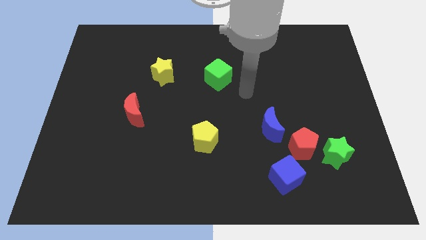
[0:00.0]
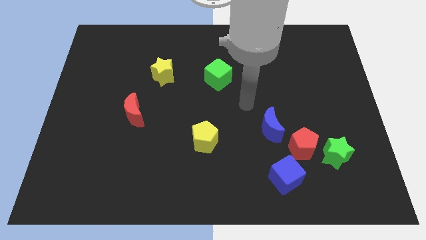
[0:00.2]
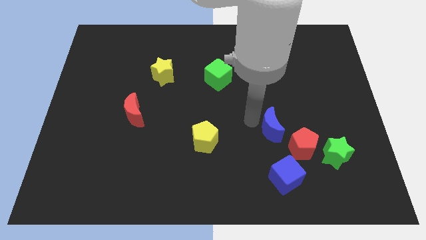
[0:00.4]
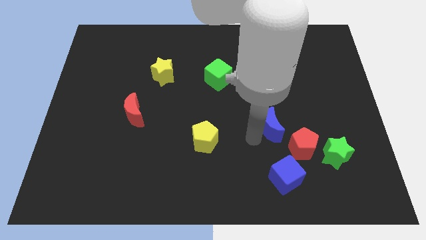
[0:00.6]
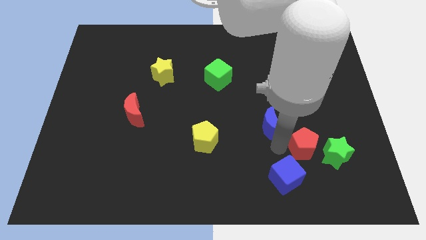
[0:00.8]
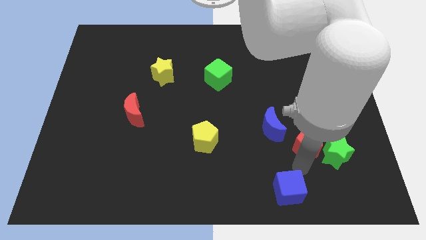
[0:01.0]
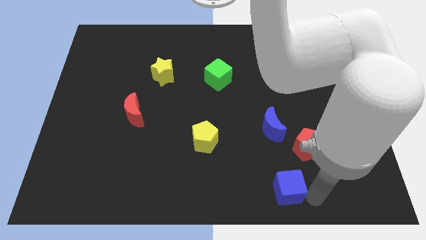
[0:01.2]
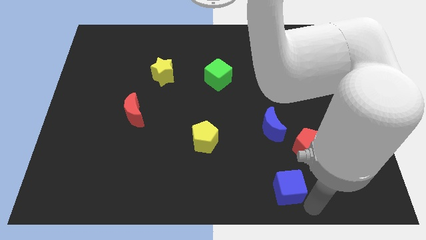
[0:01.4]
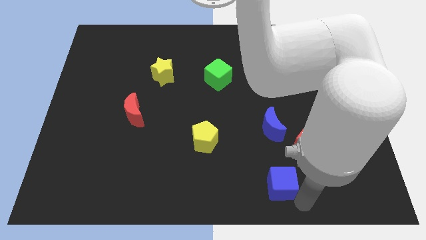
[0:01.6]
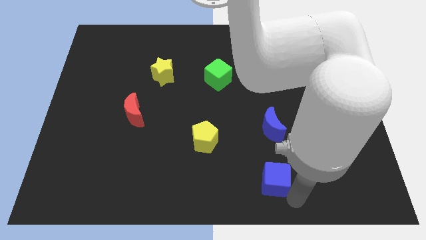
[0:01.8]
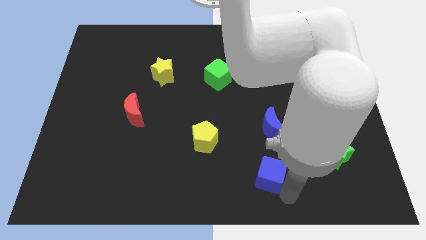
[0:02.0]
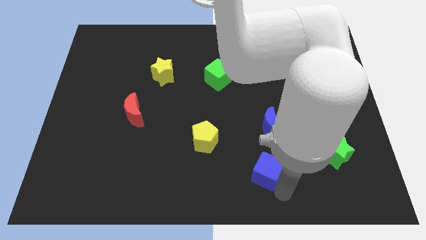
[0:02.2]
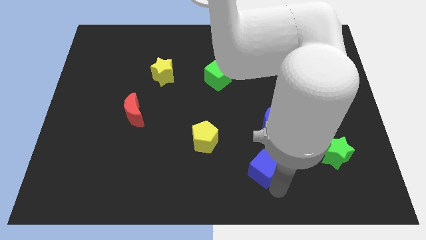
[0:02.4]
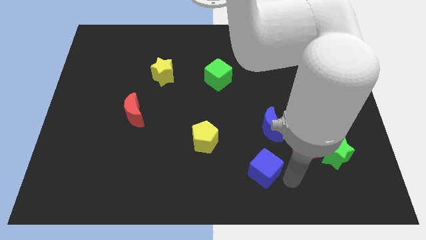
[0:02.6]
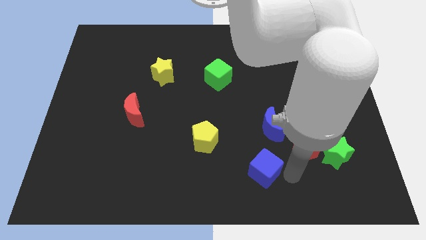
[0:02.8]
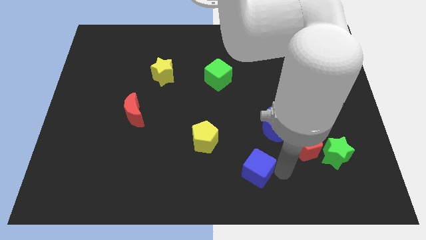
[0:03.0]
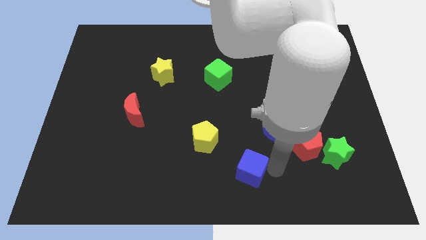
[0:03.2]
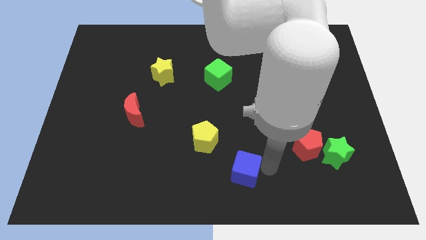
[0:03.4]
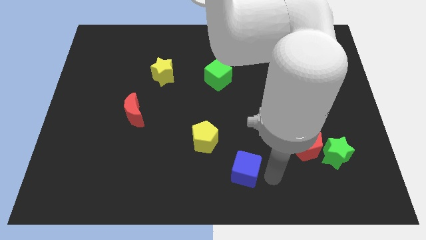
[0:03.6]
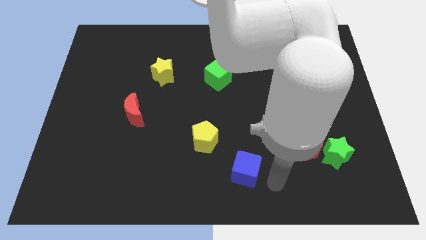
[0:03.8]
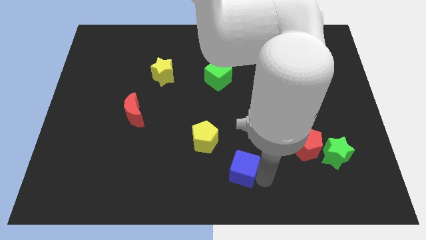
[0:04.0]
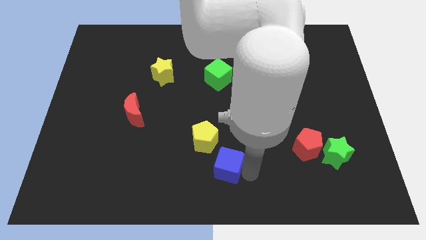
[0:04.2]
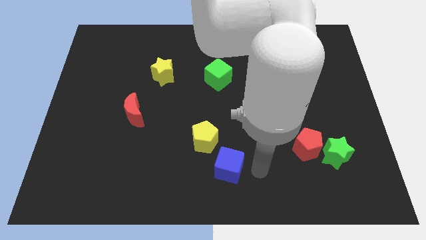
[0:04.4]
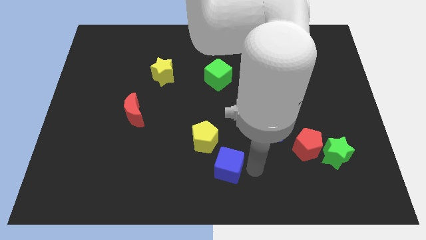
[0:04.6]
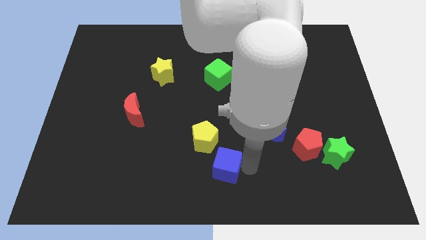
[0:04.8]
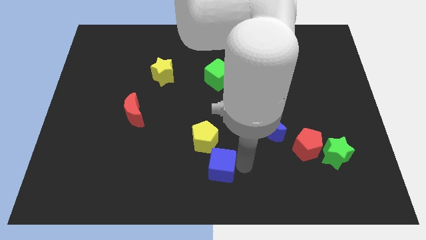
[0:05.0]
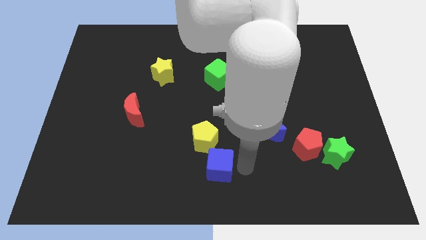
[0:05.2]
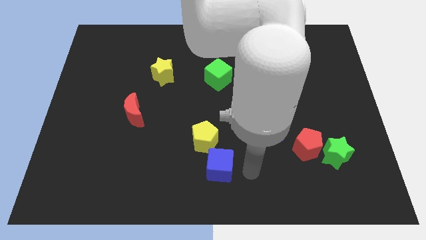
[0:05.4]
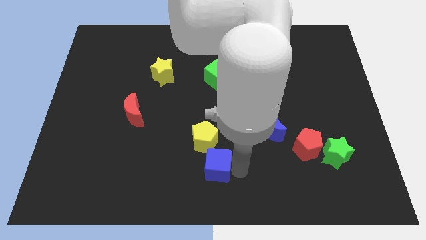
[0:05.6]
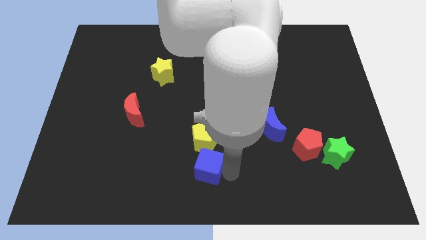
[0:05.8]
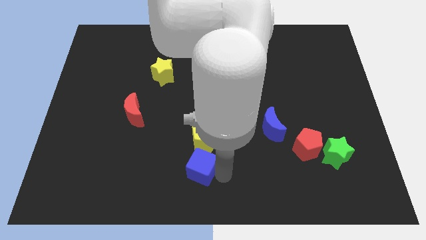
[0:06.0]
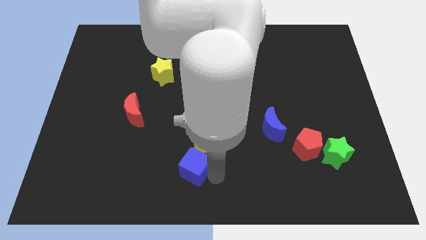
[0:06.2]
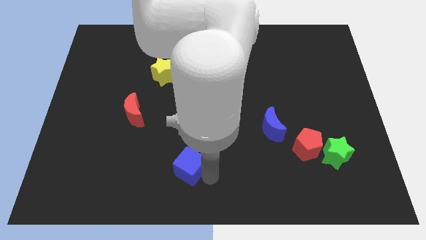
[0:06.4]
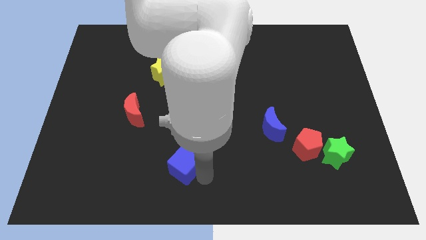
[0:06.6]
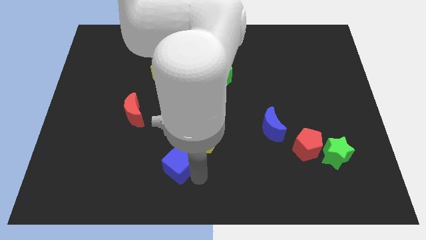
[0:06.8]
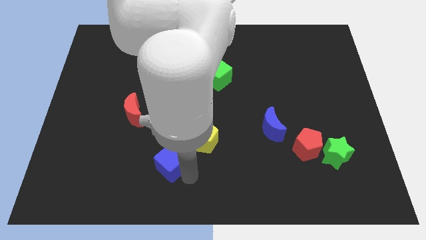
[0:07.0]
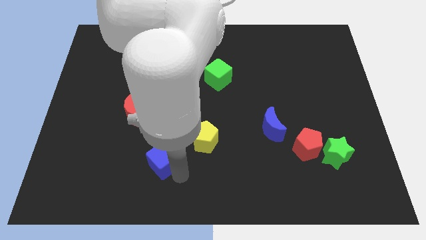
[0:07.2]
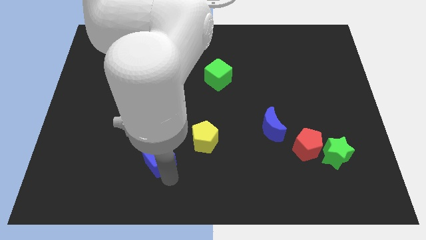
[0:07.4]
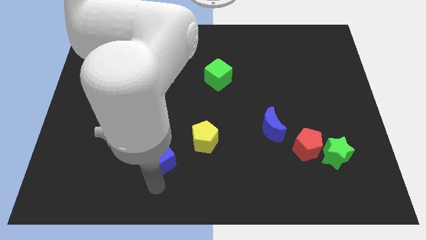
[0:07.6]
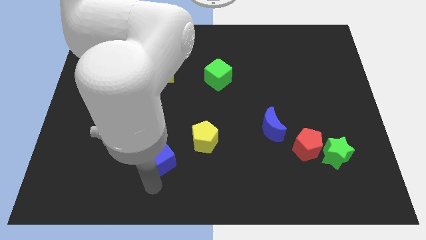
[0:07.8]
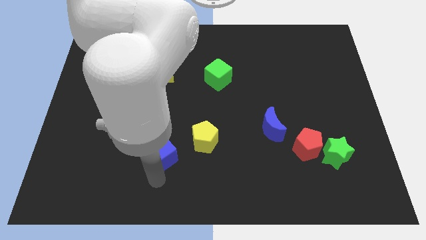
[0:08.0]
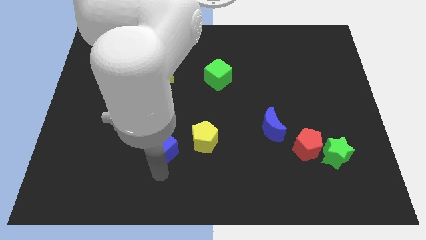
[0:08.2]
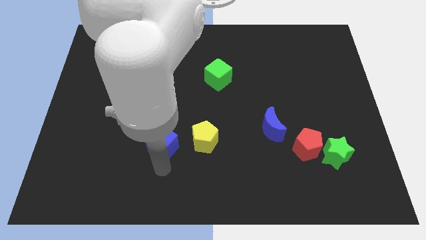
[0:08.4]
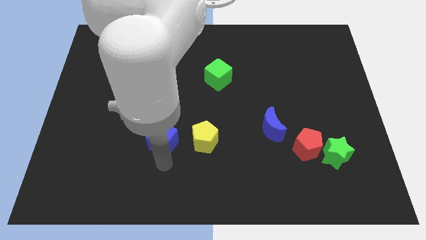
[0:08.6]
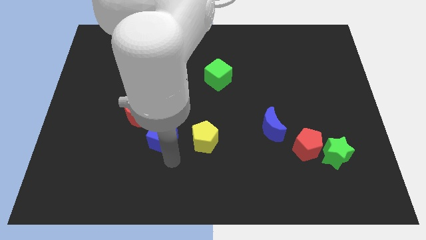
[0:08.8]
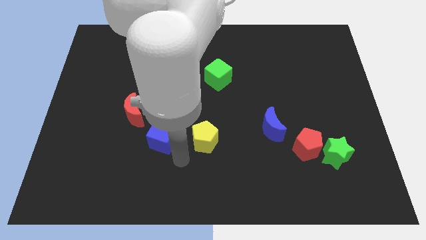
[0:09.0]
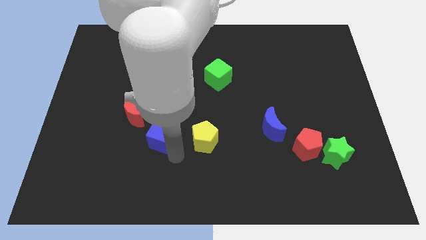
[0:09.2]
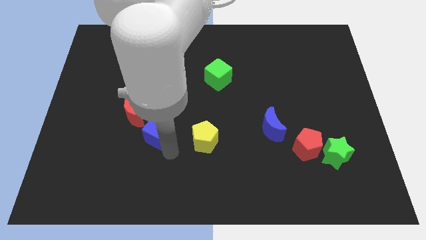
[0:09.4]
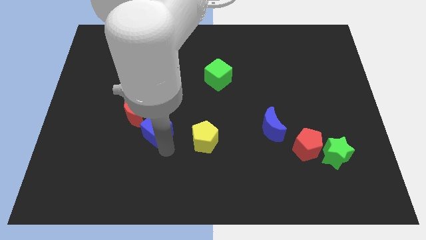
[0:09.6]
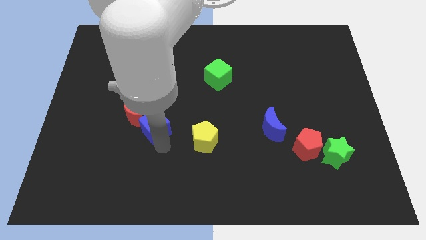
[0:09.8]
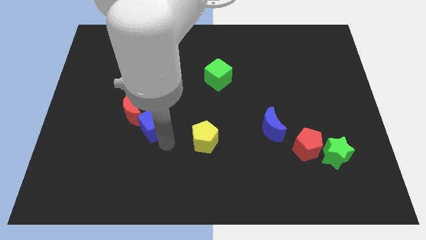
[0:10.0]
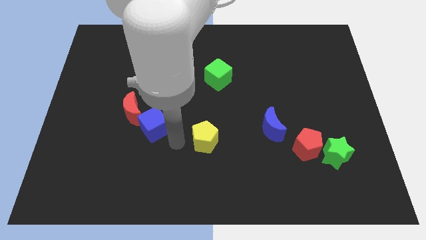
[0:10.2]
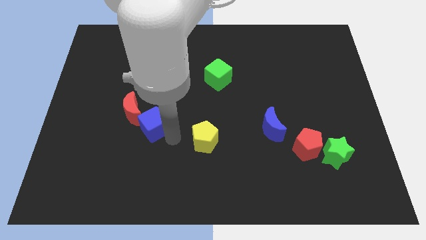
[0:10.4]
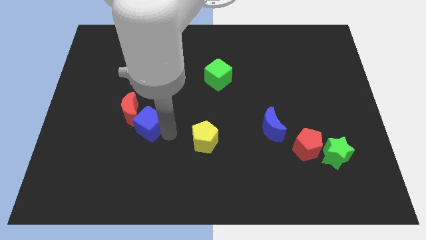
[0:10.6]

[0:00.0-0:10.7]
move the blue cube towards the red moon

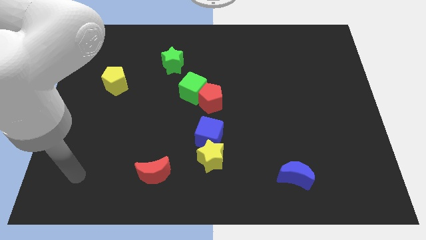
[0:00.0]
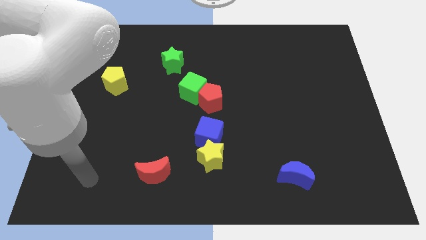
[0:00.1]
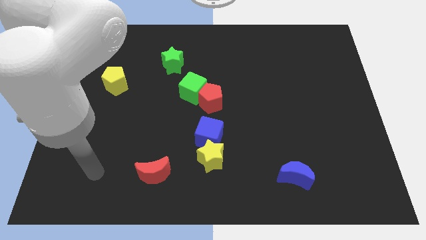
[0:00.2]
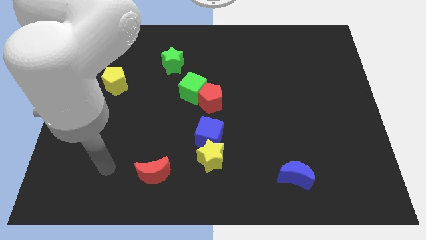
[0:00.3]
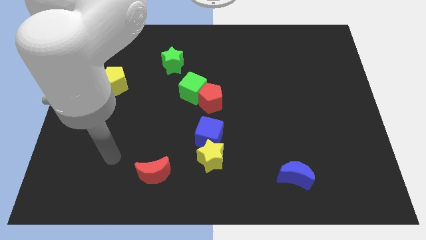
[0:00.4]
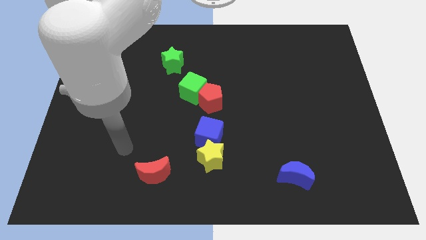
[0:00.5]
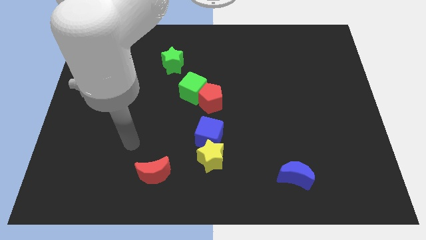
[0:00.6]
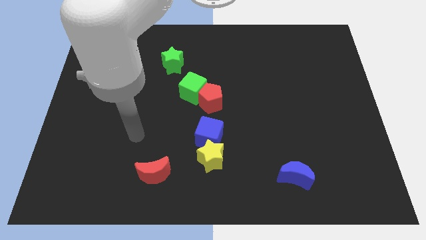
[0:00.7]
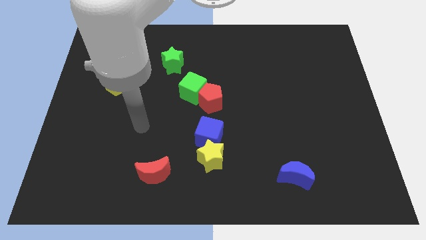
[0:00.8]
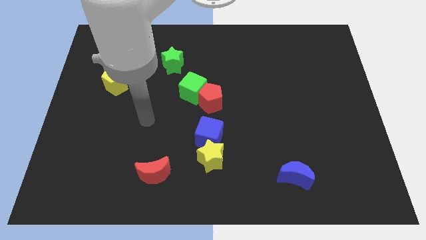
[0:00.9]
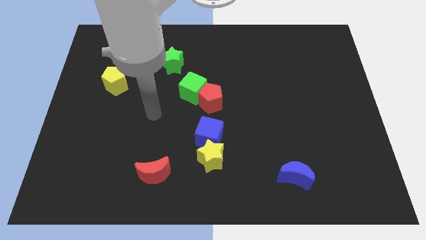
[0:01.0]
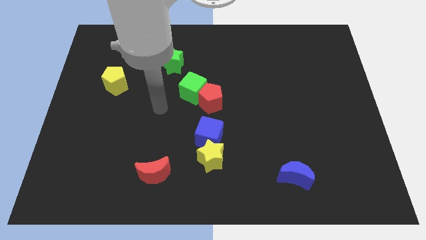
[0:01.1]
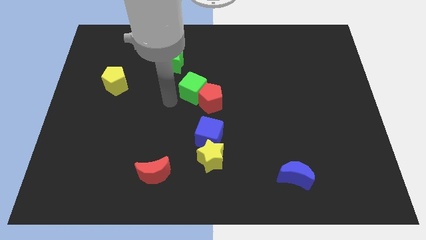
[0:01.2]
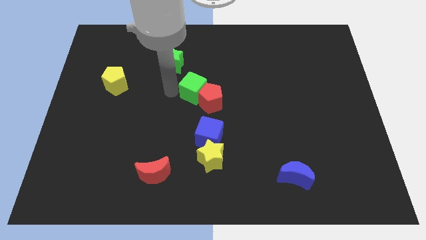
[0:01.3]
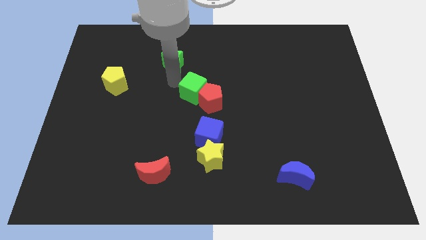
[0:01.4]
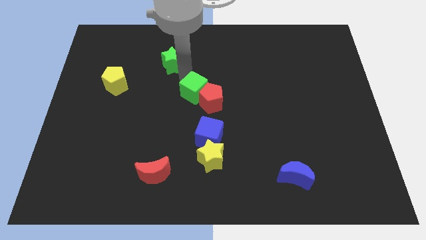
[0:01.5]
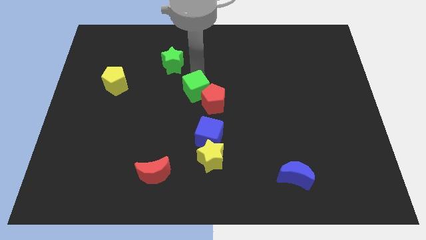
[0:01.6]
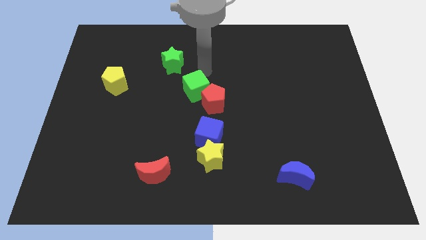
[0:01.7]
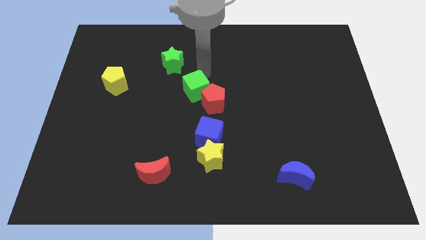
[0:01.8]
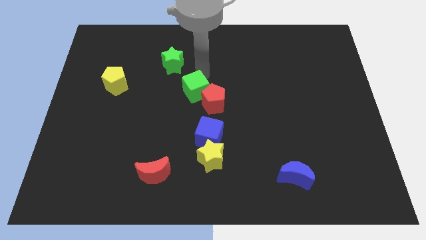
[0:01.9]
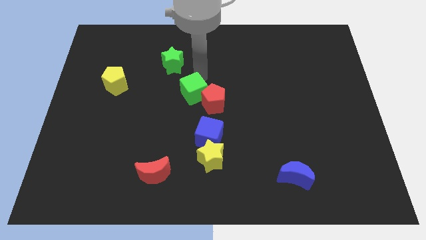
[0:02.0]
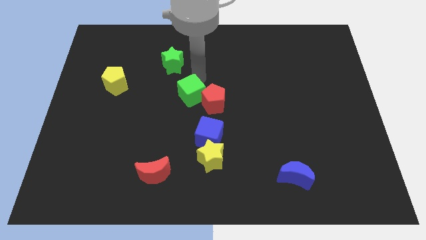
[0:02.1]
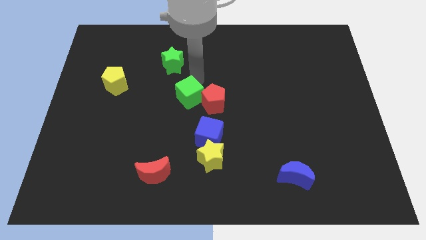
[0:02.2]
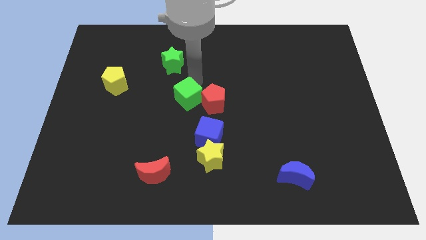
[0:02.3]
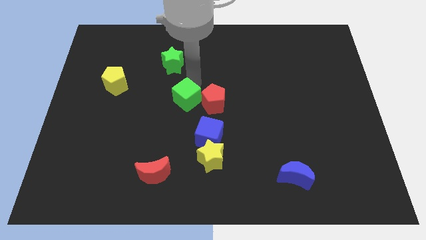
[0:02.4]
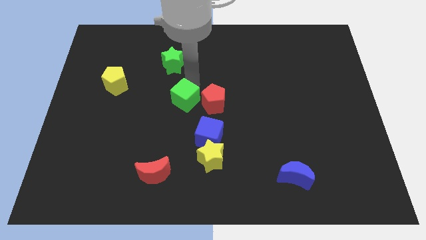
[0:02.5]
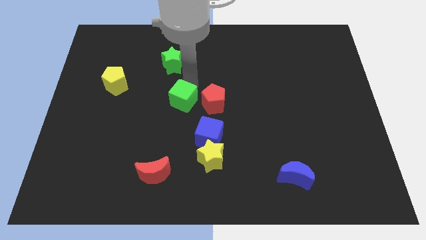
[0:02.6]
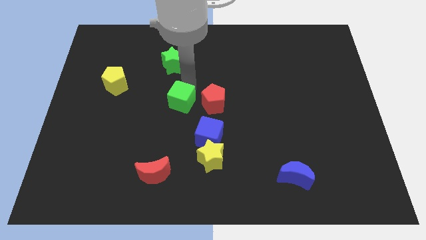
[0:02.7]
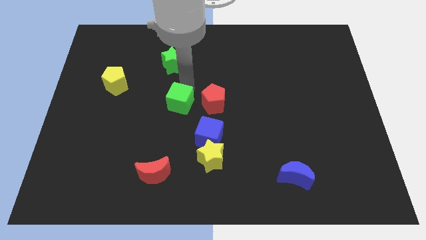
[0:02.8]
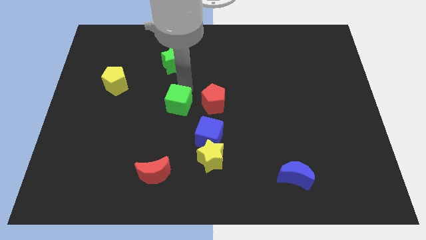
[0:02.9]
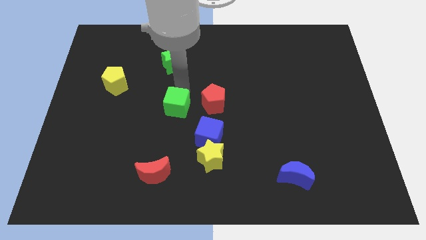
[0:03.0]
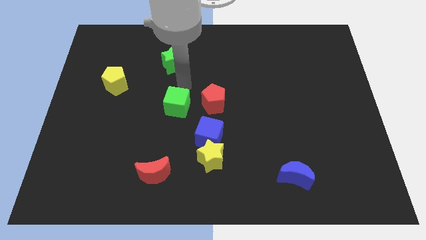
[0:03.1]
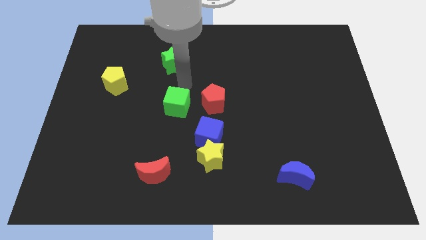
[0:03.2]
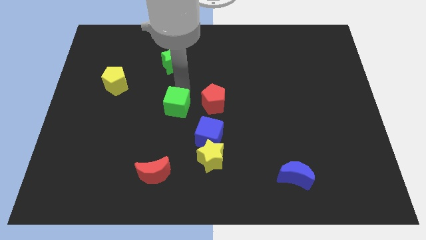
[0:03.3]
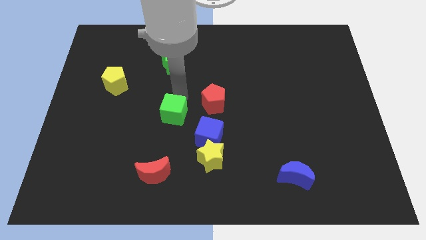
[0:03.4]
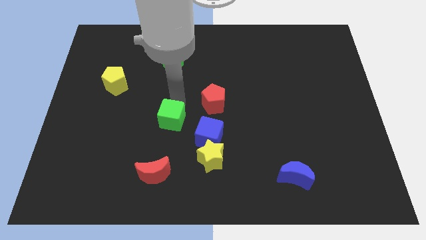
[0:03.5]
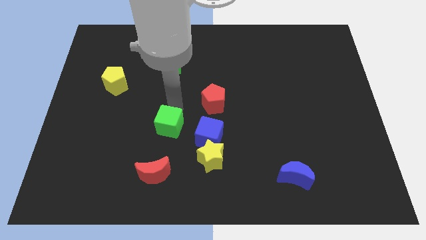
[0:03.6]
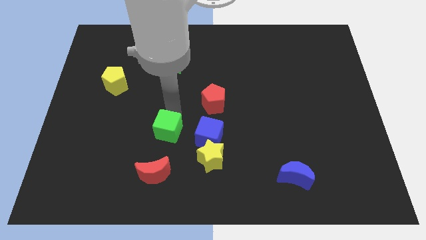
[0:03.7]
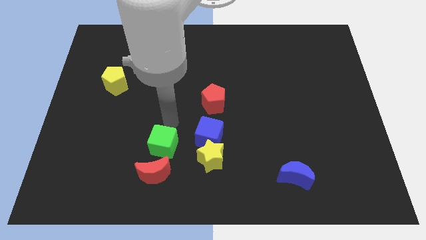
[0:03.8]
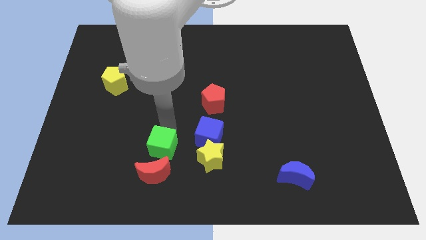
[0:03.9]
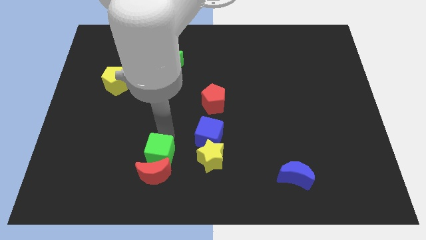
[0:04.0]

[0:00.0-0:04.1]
move the green cube to the red moon
